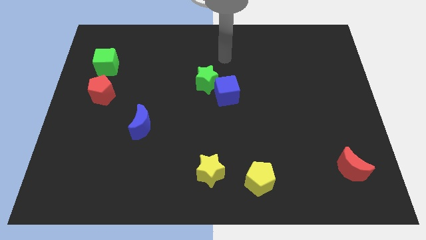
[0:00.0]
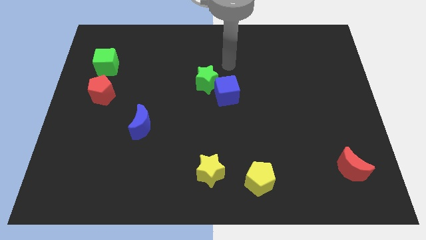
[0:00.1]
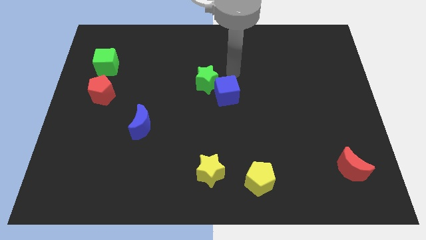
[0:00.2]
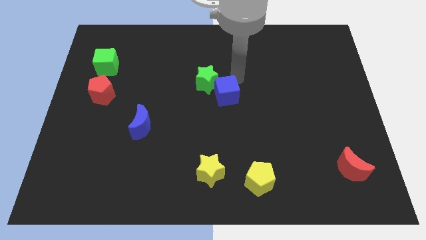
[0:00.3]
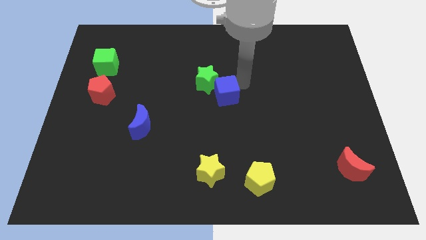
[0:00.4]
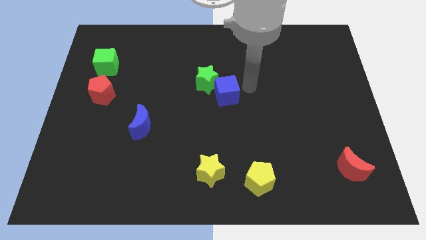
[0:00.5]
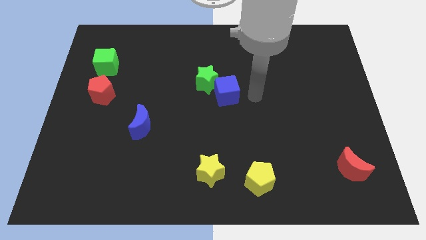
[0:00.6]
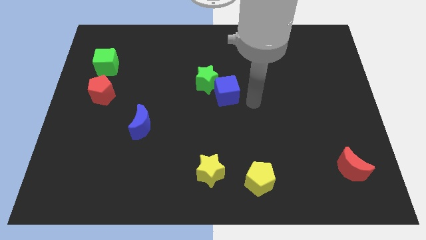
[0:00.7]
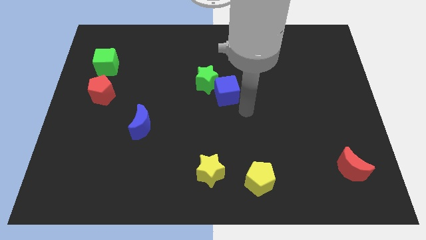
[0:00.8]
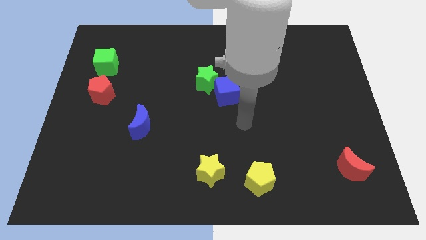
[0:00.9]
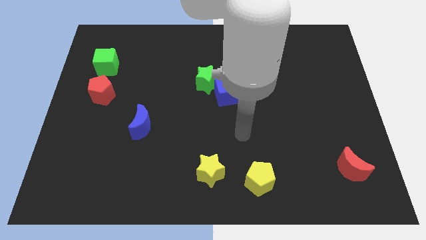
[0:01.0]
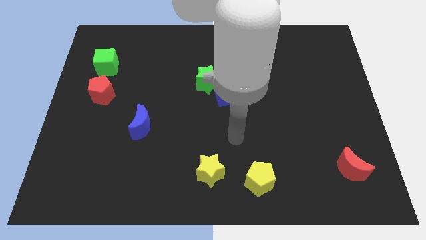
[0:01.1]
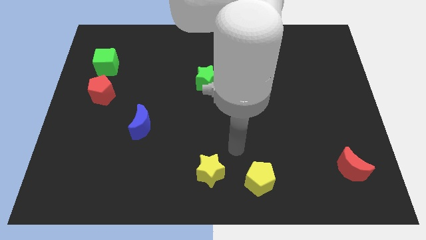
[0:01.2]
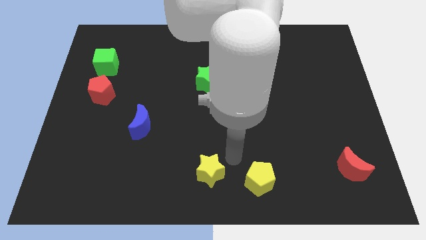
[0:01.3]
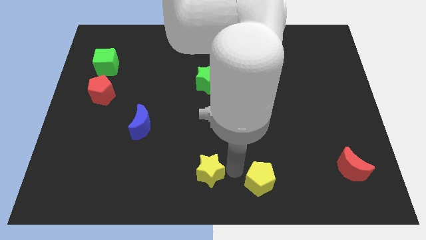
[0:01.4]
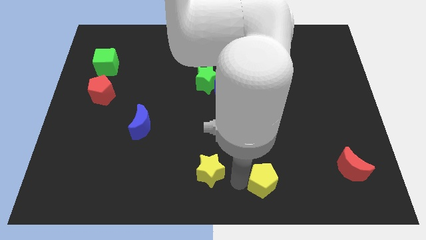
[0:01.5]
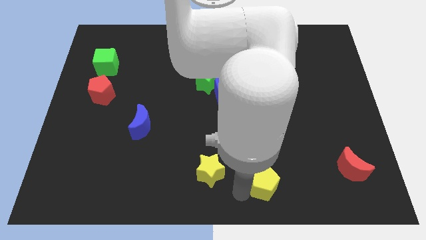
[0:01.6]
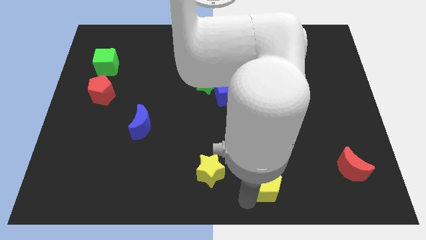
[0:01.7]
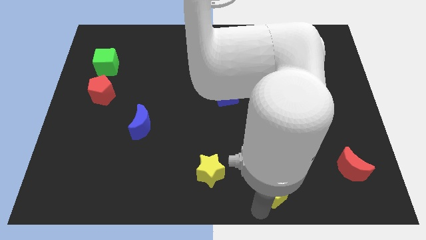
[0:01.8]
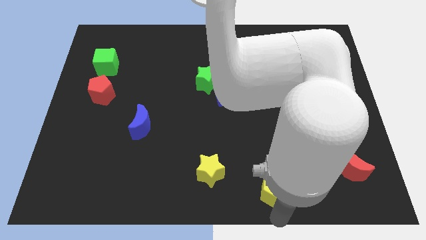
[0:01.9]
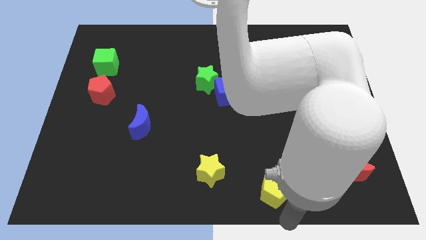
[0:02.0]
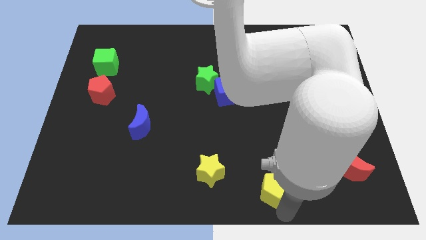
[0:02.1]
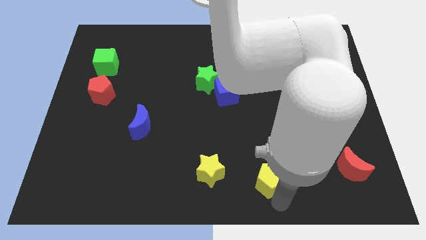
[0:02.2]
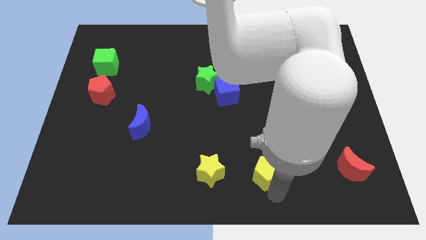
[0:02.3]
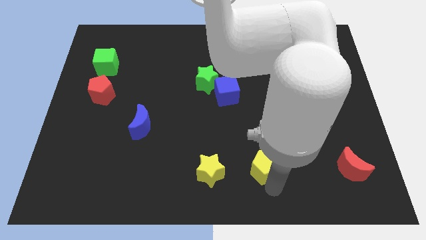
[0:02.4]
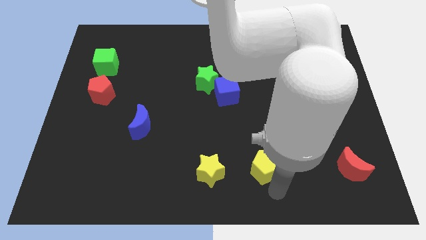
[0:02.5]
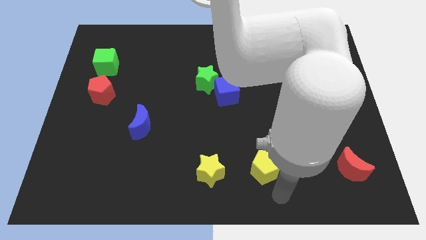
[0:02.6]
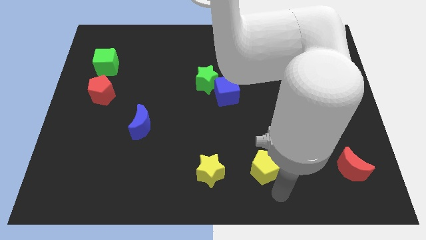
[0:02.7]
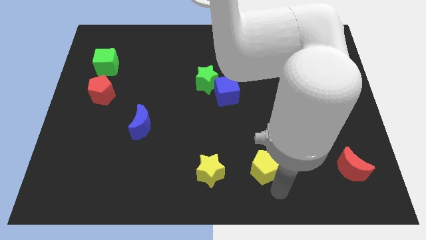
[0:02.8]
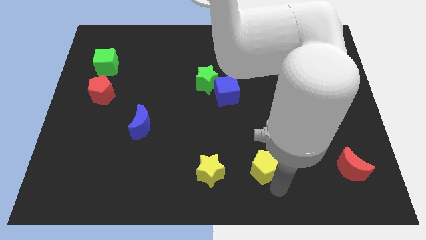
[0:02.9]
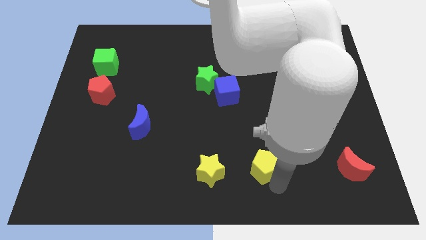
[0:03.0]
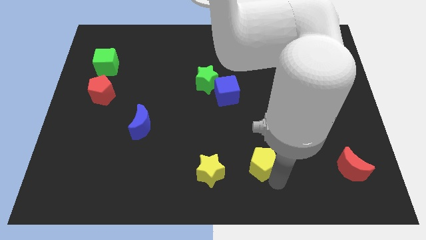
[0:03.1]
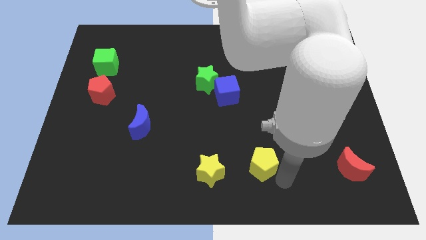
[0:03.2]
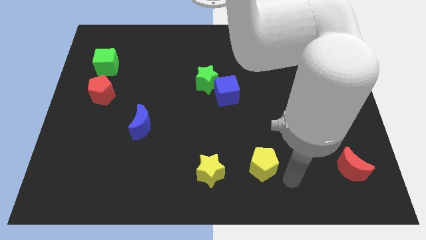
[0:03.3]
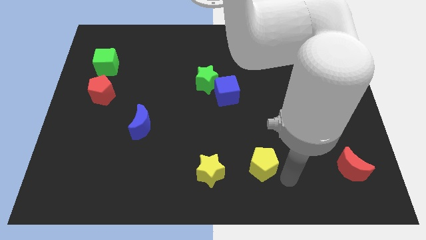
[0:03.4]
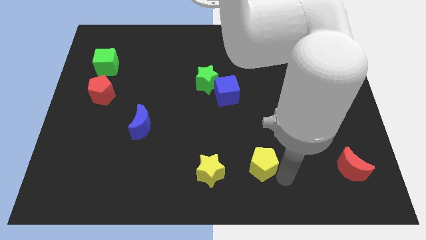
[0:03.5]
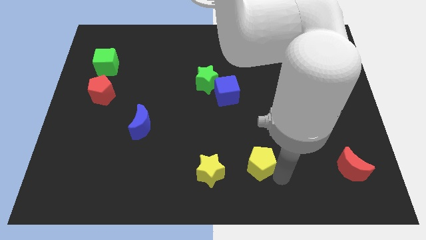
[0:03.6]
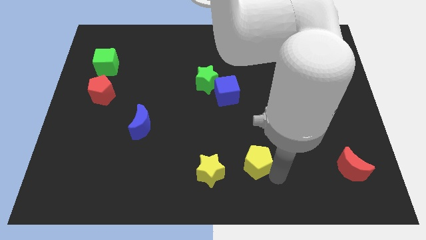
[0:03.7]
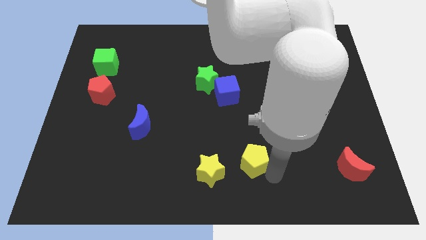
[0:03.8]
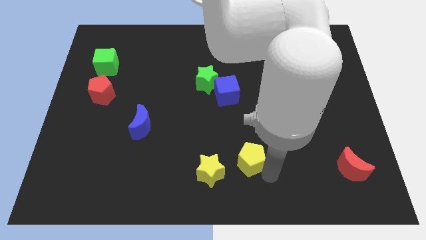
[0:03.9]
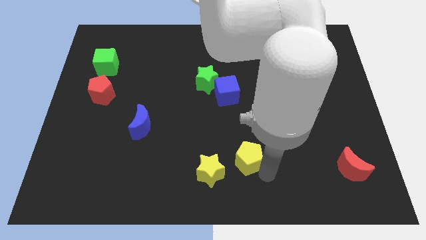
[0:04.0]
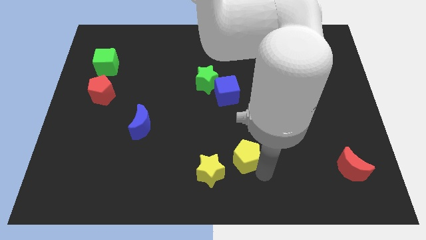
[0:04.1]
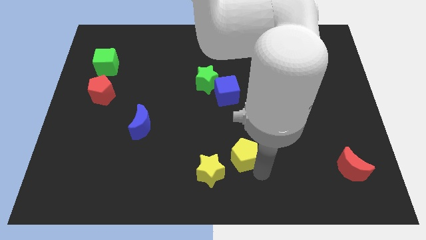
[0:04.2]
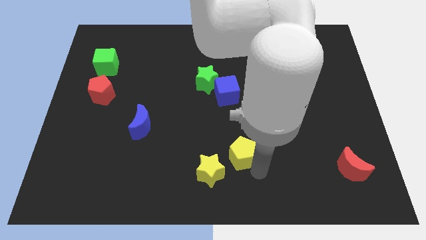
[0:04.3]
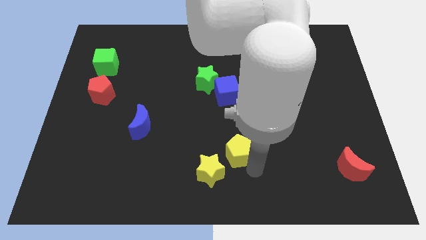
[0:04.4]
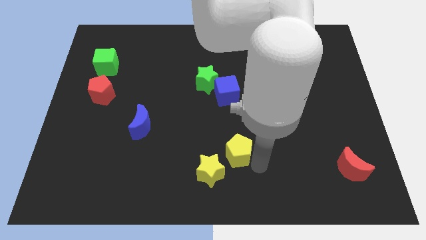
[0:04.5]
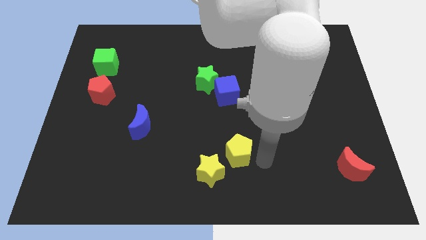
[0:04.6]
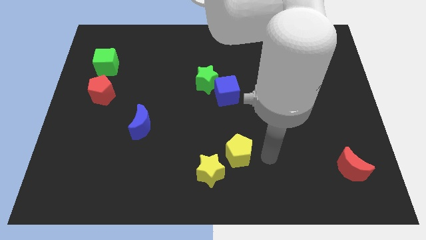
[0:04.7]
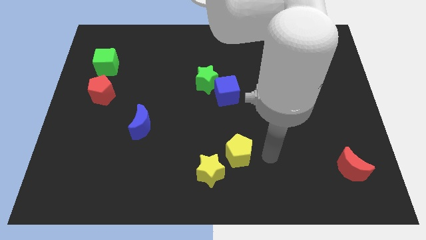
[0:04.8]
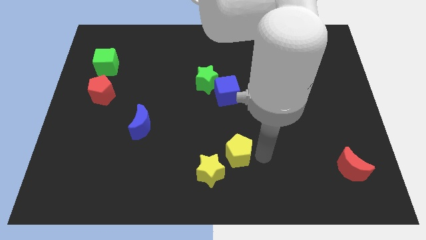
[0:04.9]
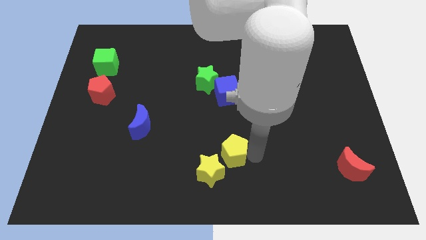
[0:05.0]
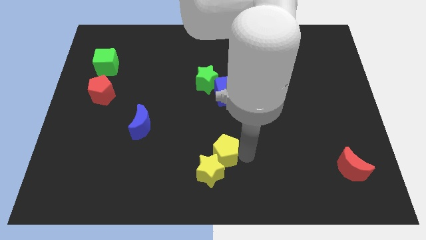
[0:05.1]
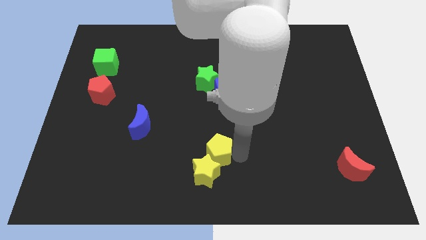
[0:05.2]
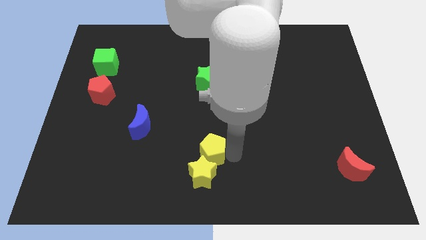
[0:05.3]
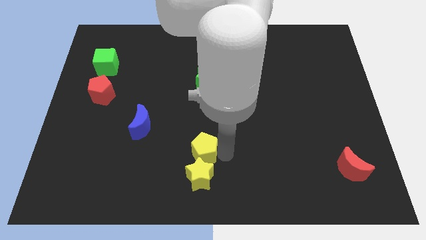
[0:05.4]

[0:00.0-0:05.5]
push the yellow pentagon to the top left of the yellow star
